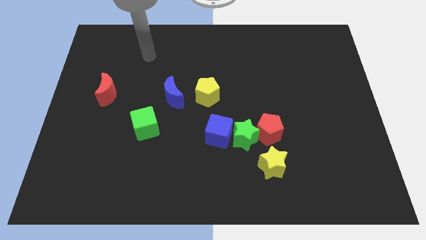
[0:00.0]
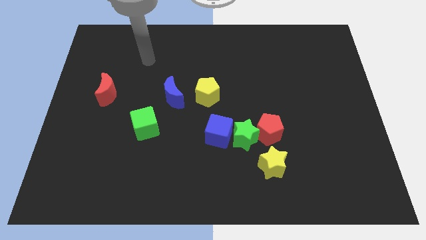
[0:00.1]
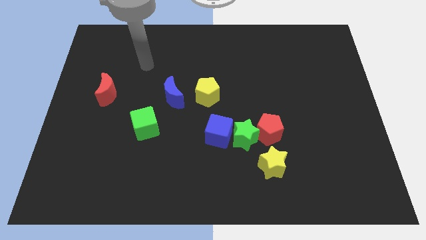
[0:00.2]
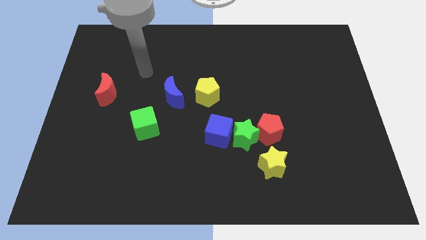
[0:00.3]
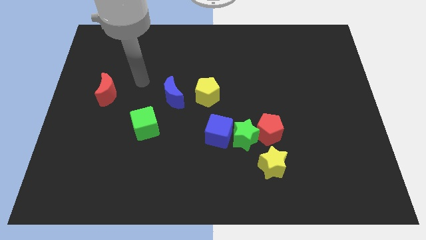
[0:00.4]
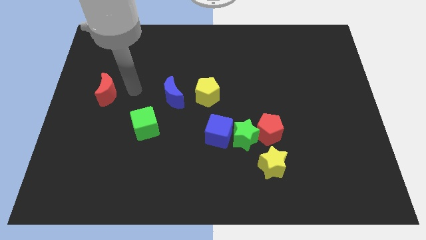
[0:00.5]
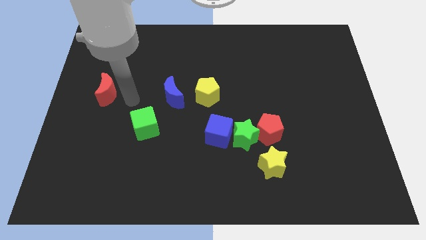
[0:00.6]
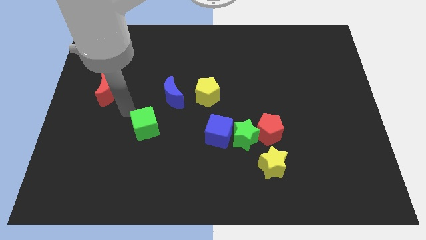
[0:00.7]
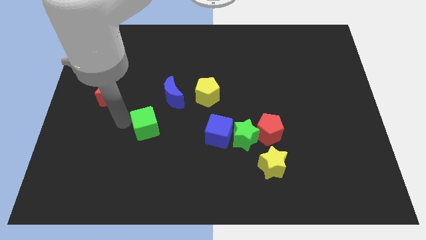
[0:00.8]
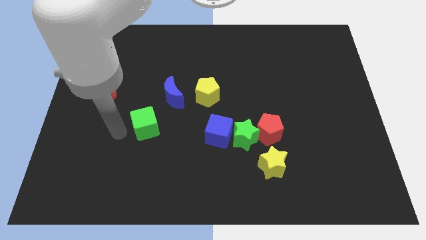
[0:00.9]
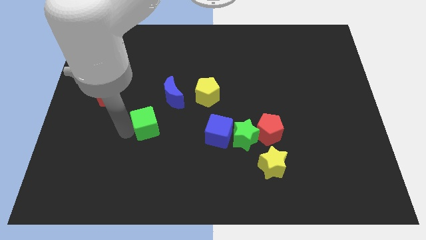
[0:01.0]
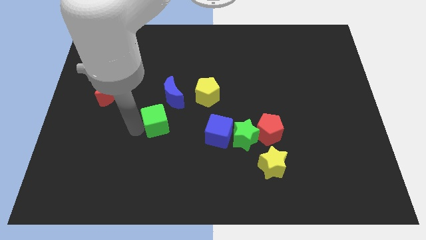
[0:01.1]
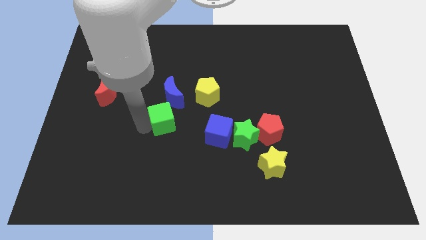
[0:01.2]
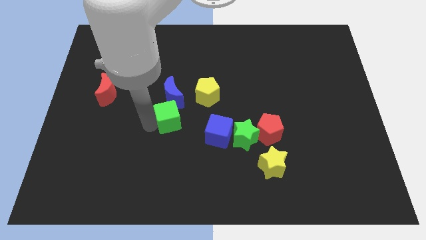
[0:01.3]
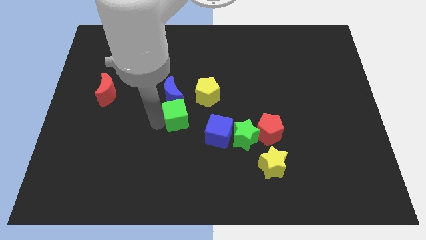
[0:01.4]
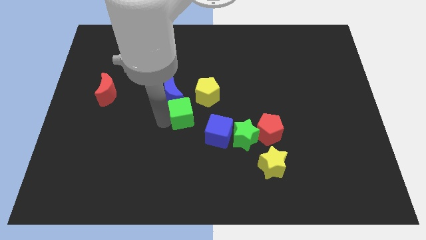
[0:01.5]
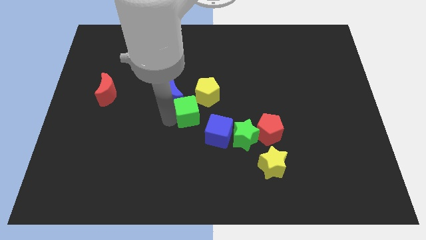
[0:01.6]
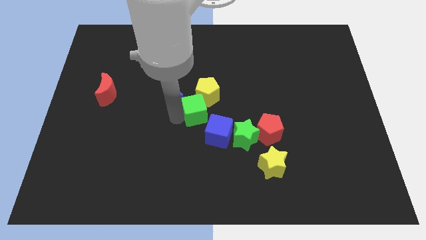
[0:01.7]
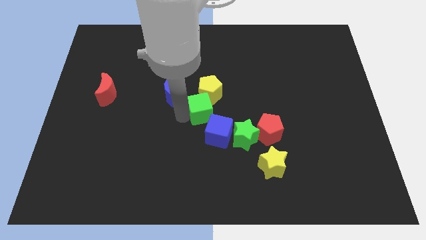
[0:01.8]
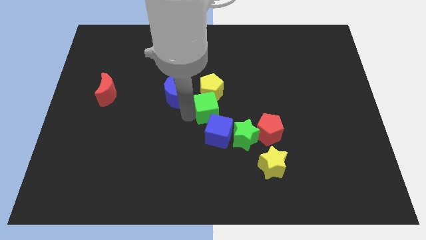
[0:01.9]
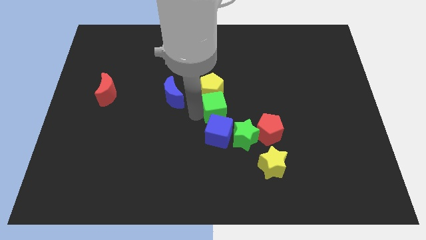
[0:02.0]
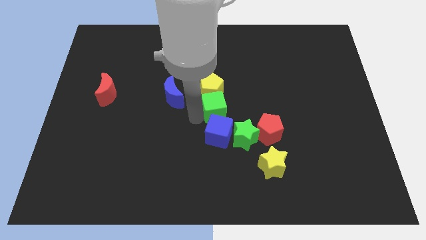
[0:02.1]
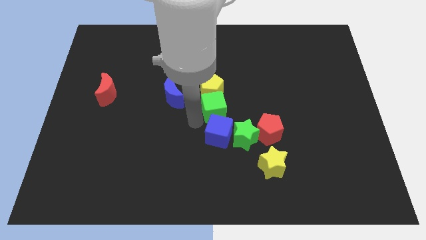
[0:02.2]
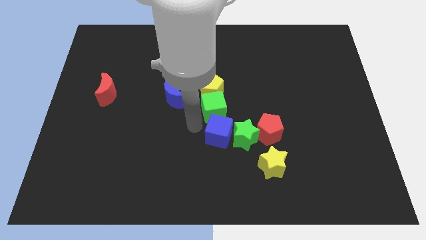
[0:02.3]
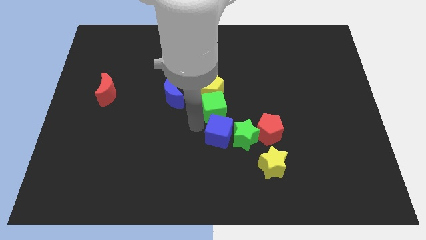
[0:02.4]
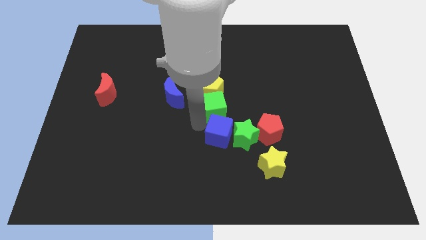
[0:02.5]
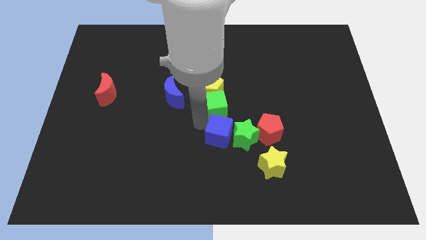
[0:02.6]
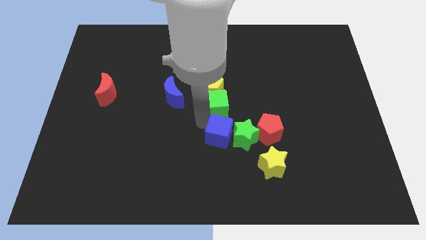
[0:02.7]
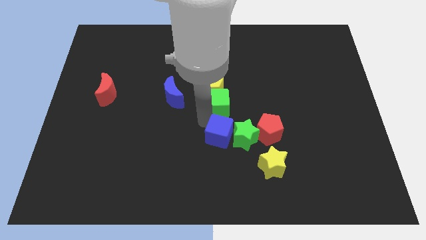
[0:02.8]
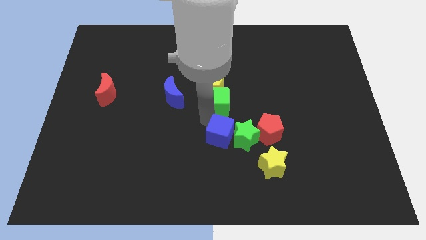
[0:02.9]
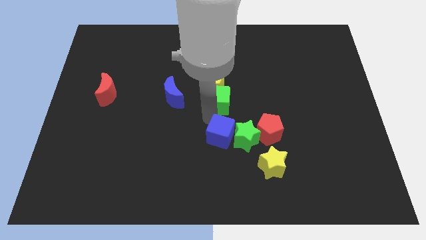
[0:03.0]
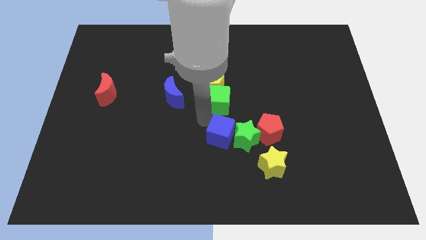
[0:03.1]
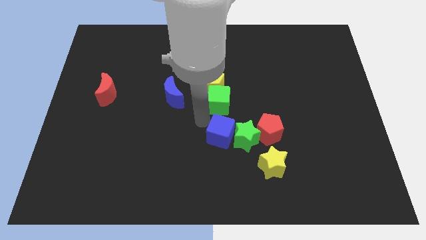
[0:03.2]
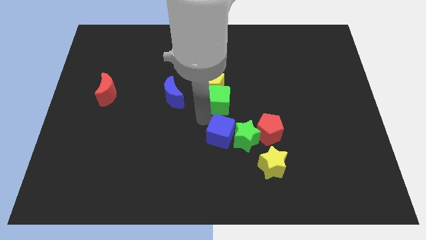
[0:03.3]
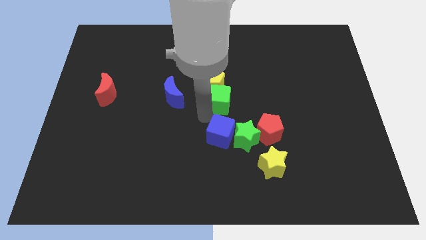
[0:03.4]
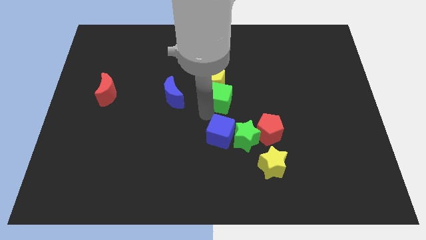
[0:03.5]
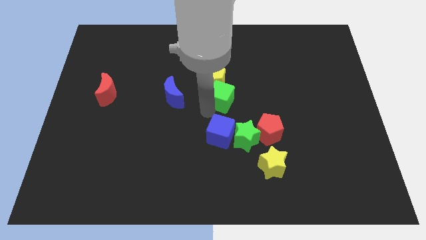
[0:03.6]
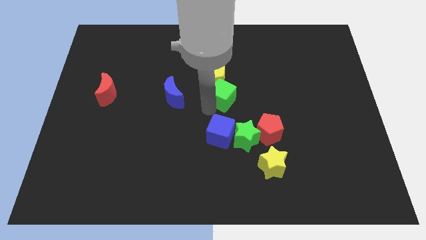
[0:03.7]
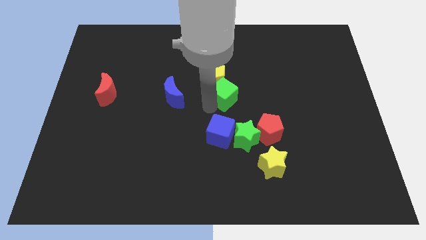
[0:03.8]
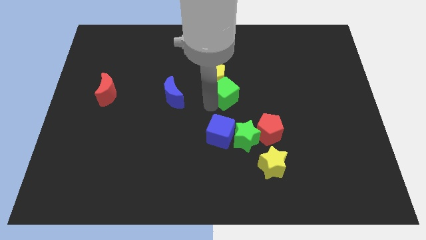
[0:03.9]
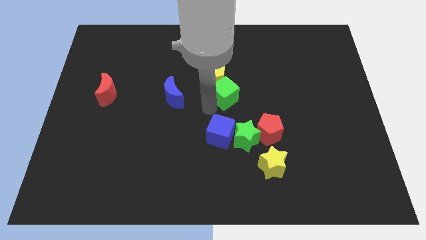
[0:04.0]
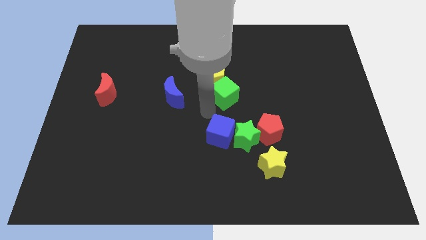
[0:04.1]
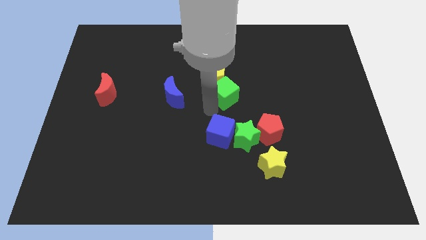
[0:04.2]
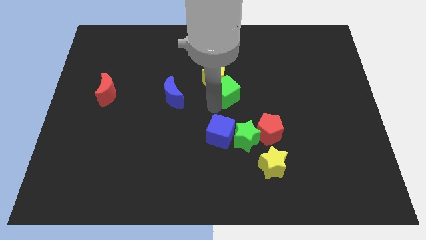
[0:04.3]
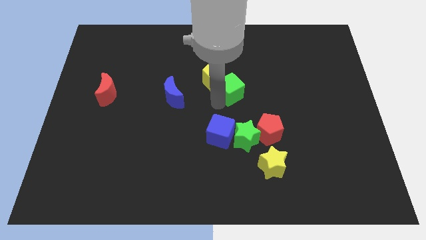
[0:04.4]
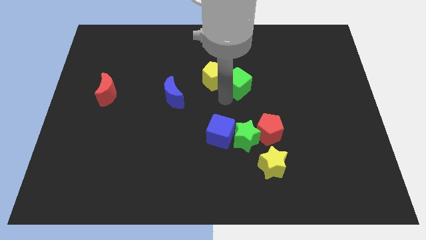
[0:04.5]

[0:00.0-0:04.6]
push the green cube up and right

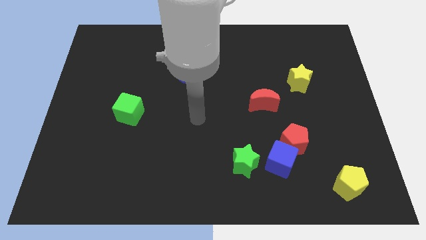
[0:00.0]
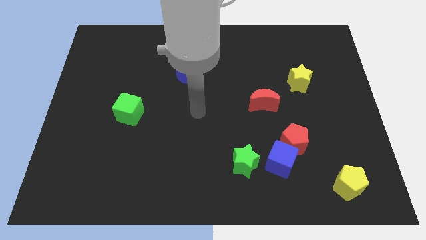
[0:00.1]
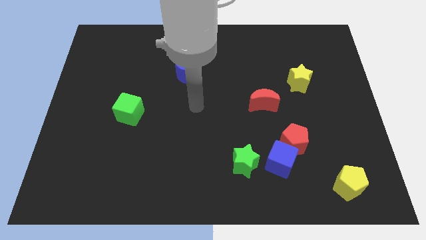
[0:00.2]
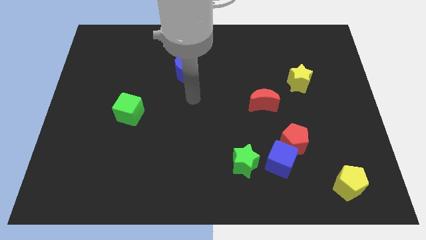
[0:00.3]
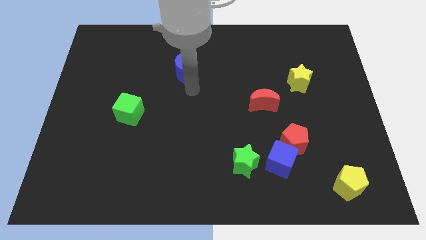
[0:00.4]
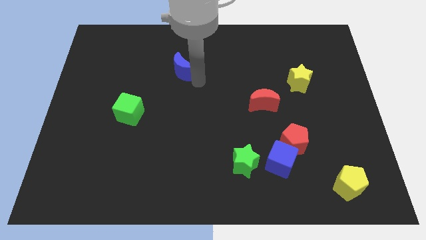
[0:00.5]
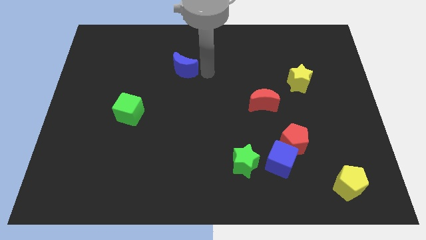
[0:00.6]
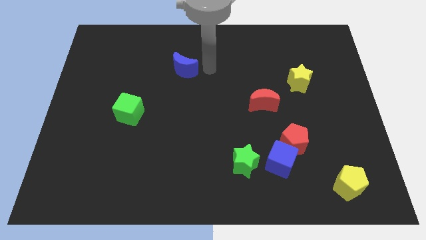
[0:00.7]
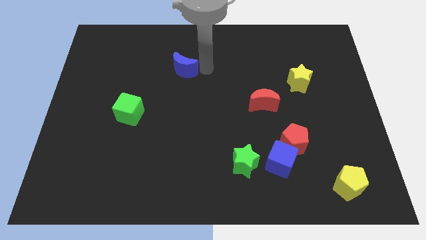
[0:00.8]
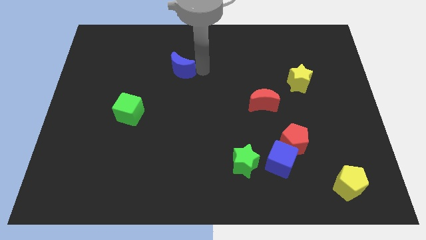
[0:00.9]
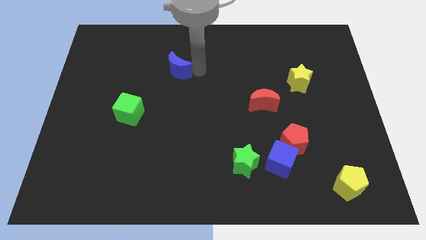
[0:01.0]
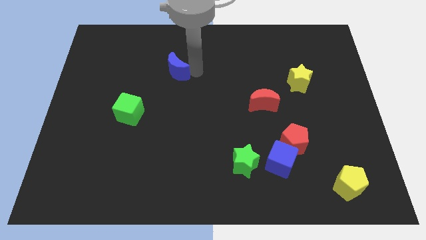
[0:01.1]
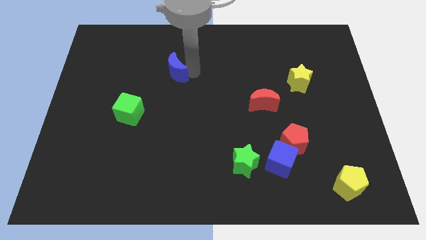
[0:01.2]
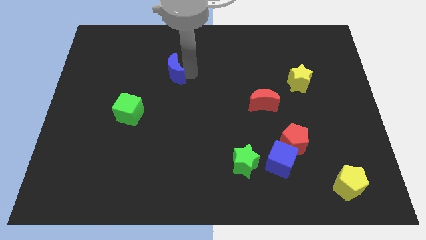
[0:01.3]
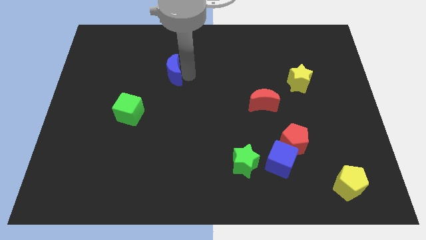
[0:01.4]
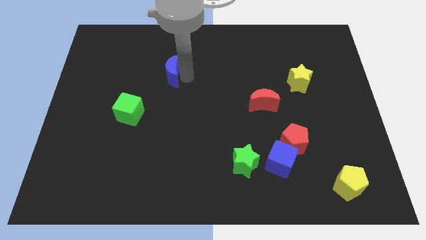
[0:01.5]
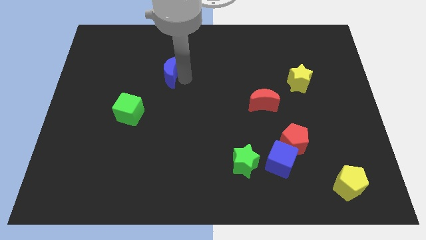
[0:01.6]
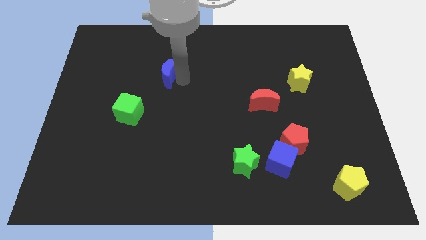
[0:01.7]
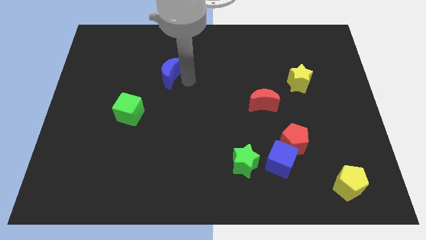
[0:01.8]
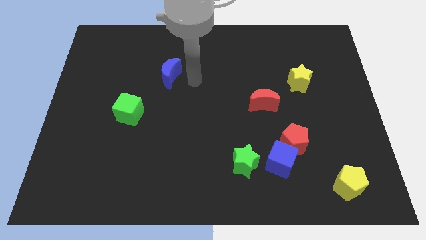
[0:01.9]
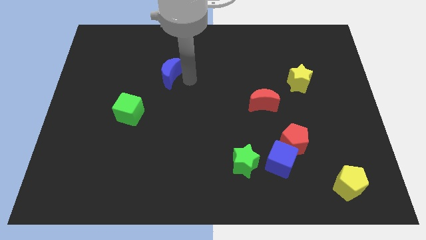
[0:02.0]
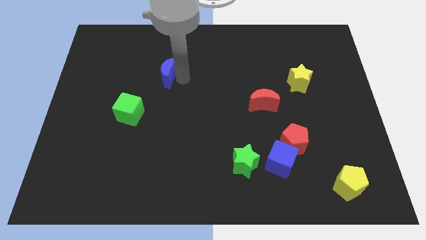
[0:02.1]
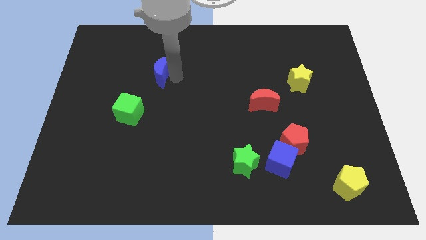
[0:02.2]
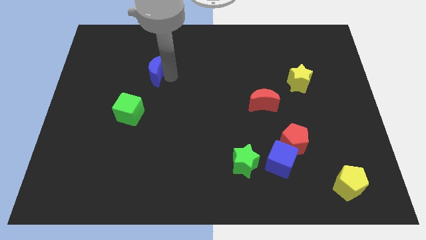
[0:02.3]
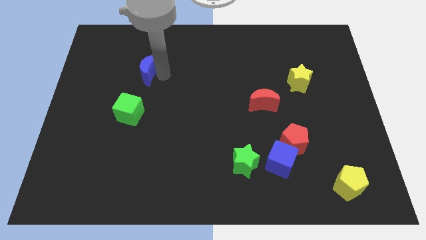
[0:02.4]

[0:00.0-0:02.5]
move the blue moon slightly left

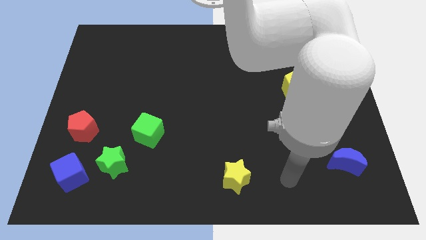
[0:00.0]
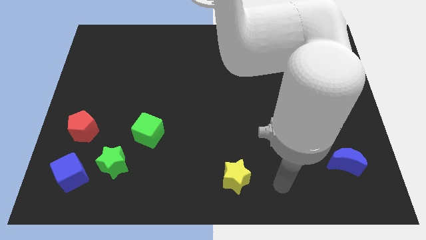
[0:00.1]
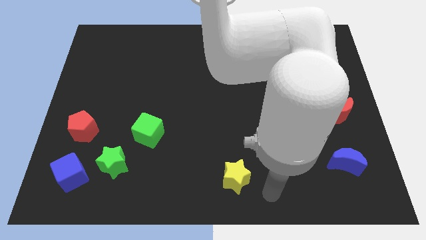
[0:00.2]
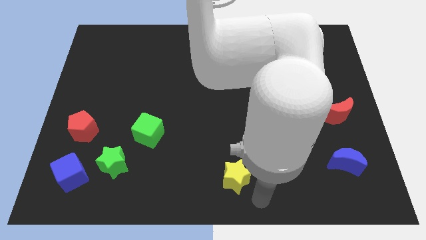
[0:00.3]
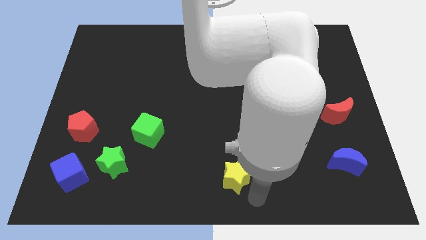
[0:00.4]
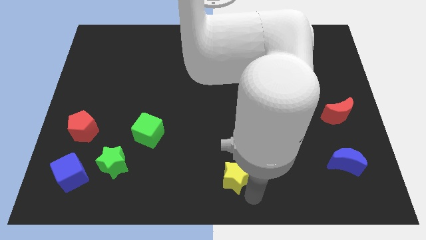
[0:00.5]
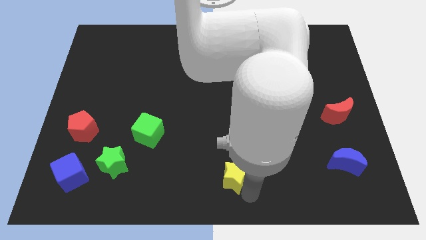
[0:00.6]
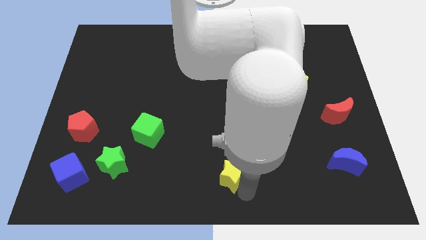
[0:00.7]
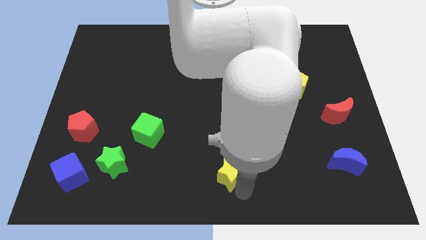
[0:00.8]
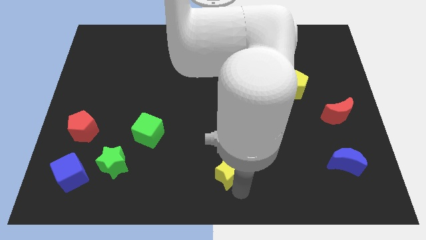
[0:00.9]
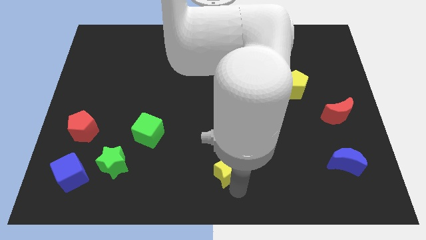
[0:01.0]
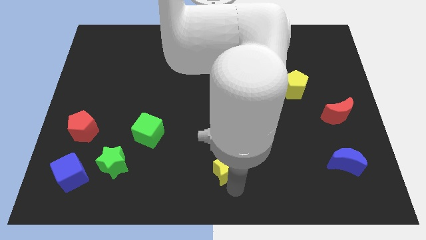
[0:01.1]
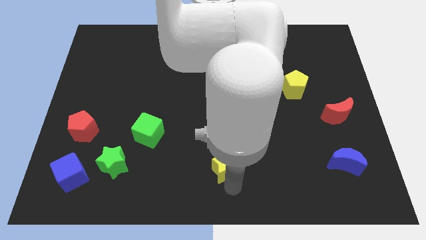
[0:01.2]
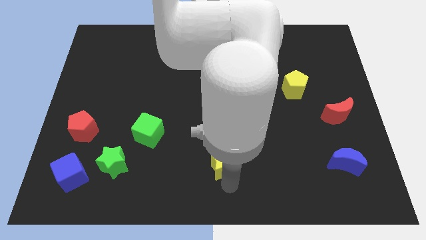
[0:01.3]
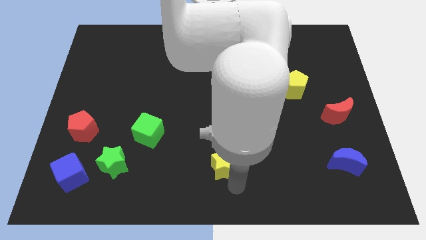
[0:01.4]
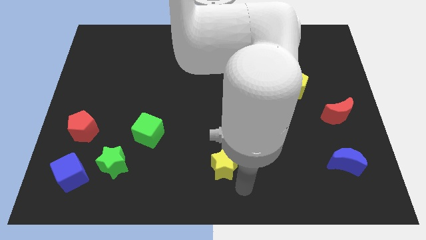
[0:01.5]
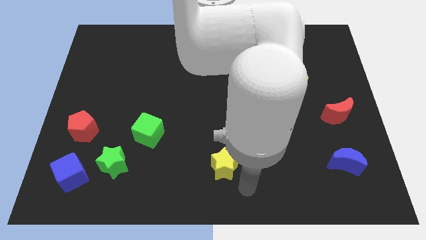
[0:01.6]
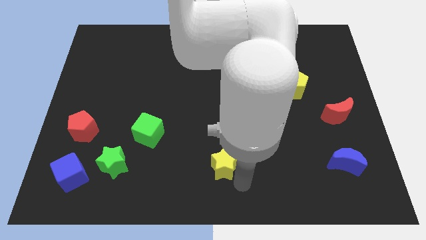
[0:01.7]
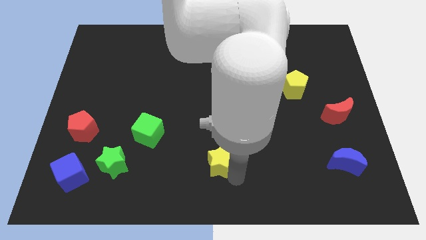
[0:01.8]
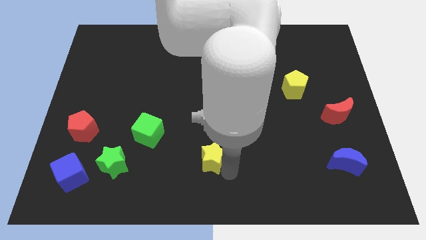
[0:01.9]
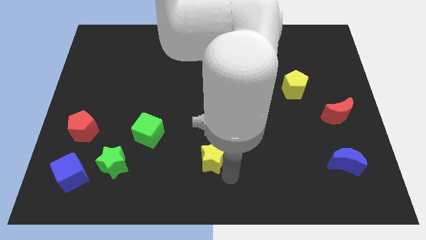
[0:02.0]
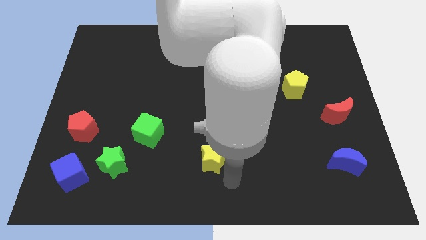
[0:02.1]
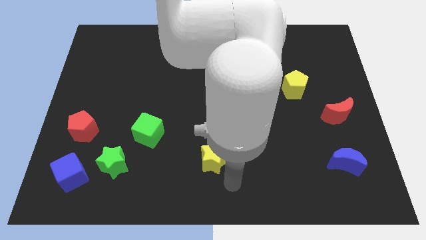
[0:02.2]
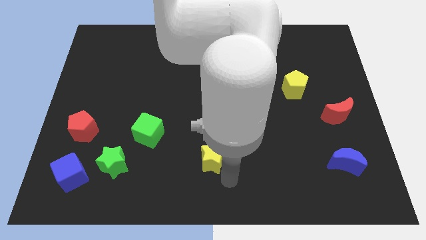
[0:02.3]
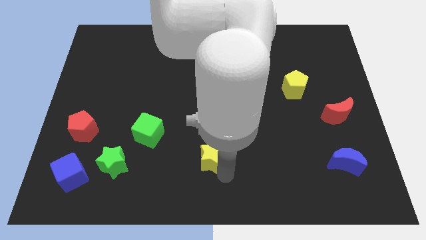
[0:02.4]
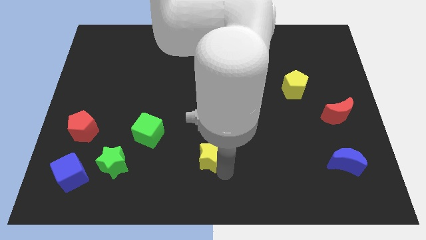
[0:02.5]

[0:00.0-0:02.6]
move the yellow star upwards and left somewhat
